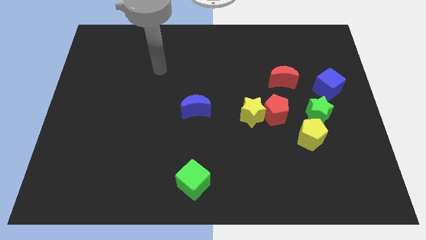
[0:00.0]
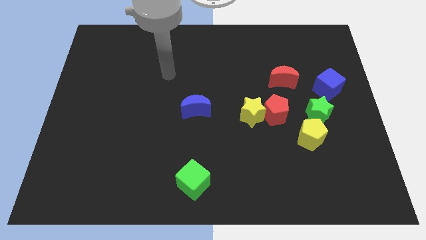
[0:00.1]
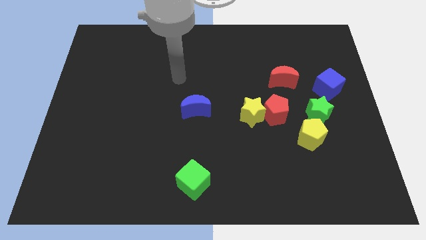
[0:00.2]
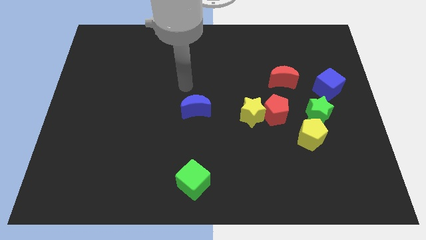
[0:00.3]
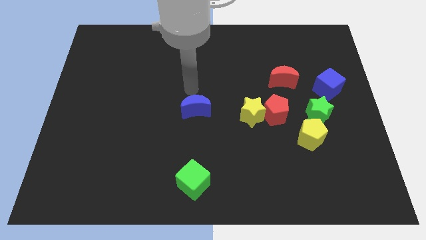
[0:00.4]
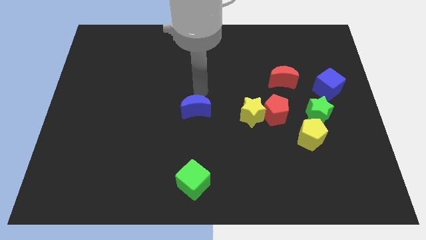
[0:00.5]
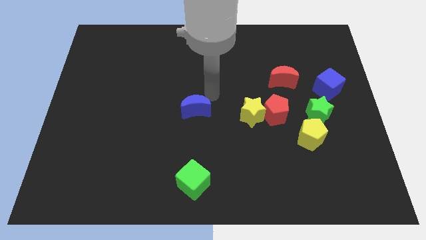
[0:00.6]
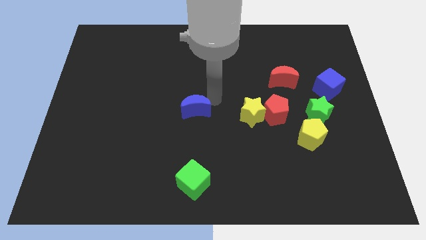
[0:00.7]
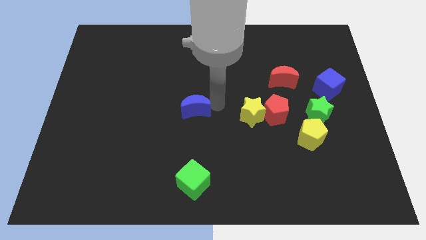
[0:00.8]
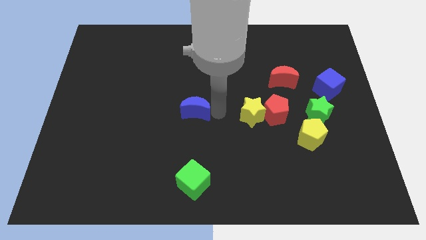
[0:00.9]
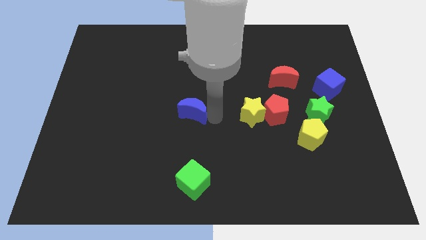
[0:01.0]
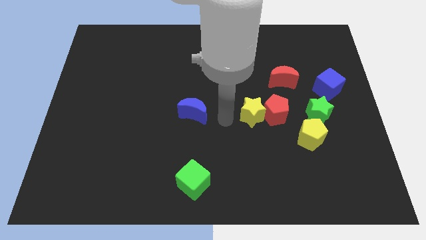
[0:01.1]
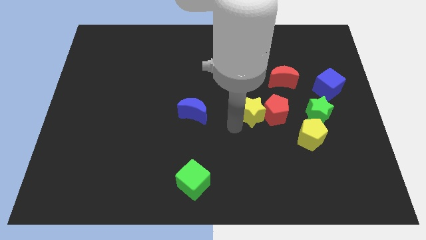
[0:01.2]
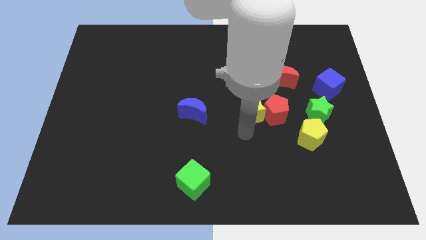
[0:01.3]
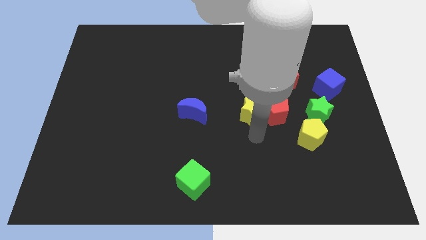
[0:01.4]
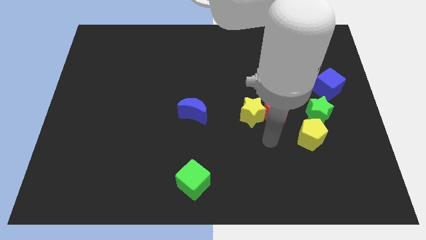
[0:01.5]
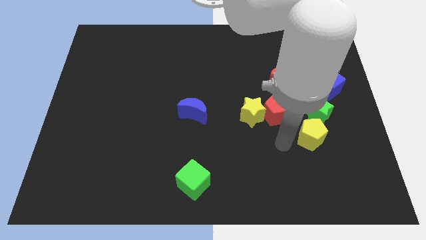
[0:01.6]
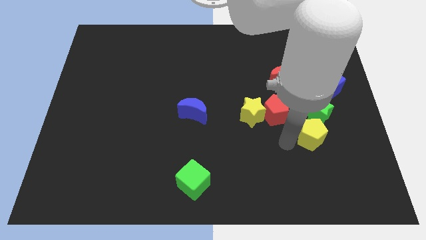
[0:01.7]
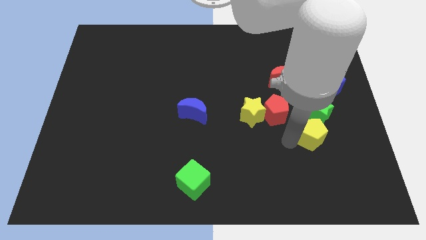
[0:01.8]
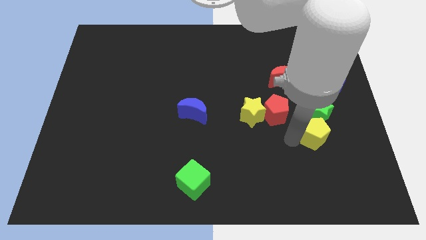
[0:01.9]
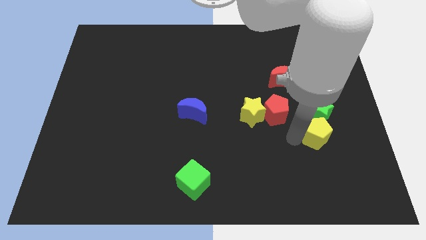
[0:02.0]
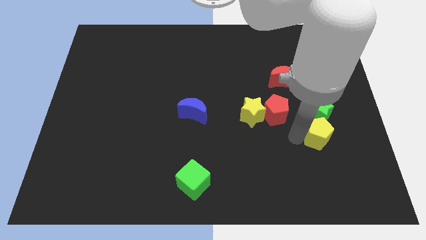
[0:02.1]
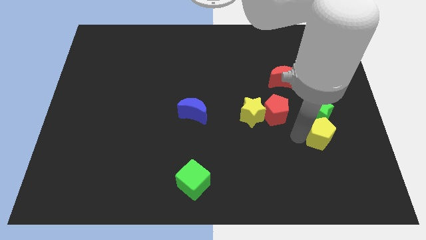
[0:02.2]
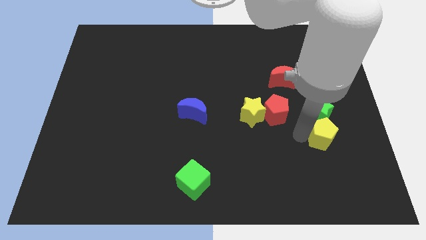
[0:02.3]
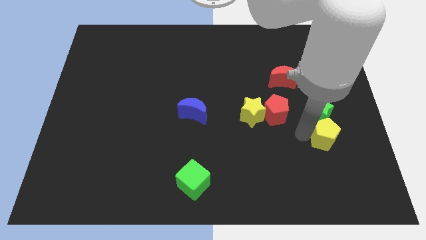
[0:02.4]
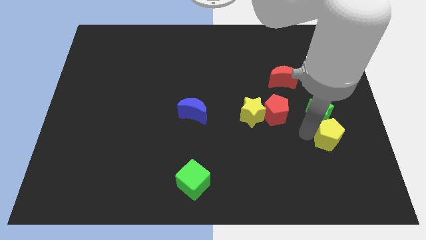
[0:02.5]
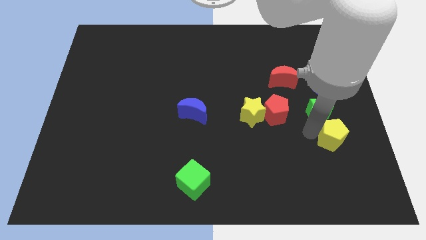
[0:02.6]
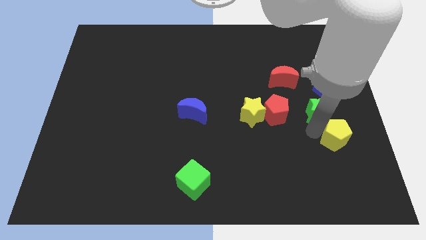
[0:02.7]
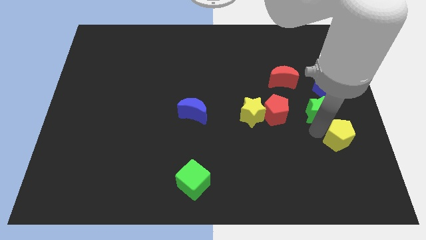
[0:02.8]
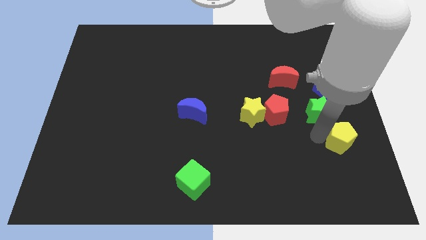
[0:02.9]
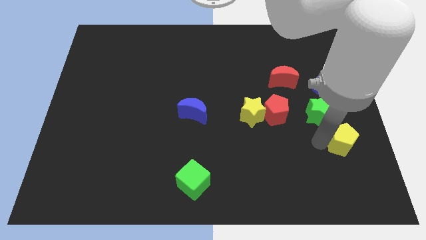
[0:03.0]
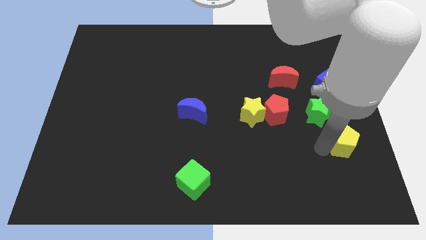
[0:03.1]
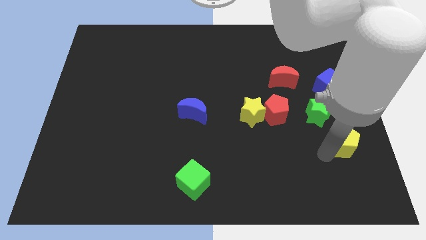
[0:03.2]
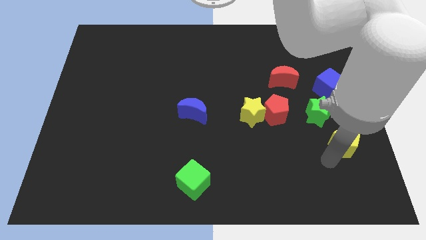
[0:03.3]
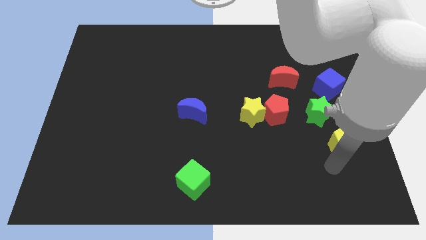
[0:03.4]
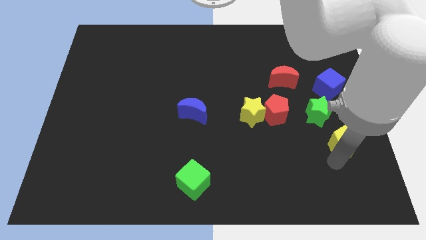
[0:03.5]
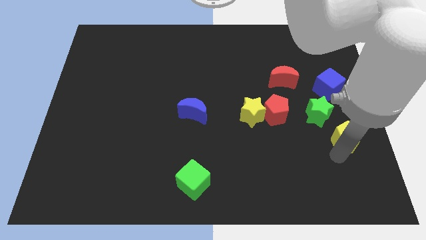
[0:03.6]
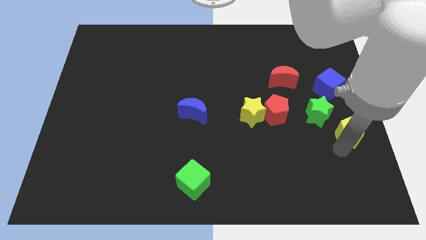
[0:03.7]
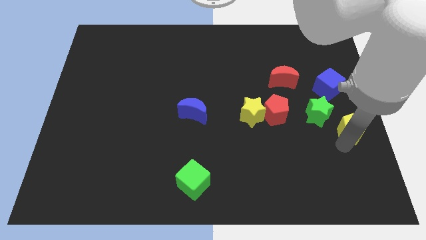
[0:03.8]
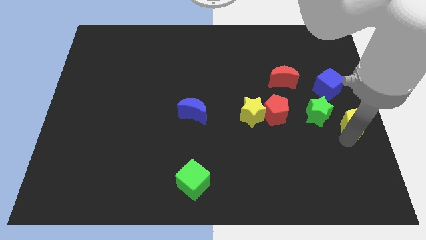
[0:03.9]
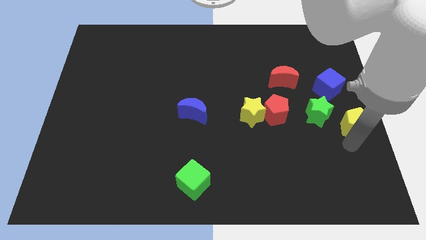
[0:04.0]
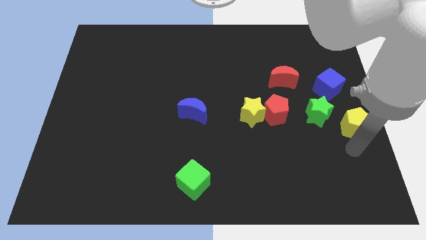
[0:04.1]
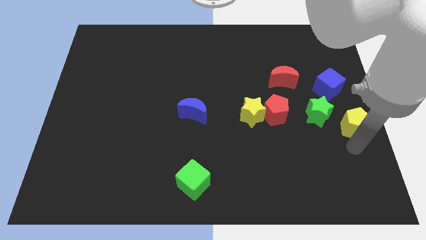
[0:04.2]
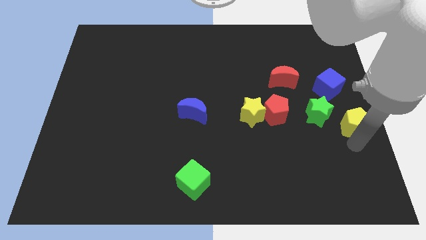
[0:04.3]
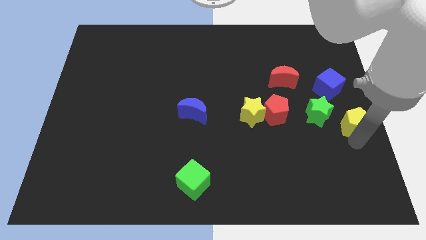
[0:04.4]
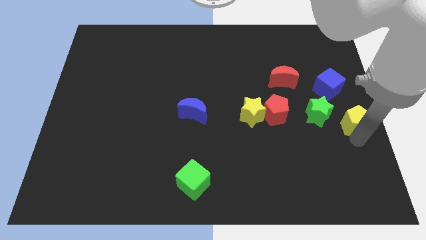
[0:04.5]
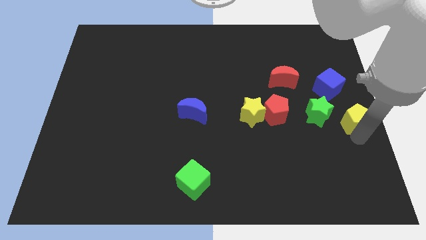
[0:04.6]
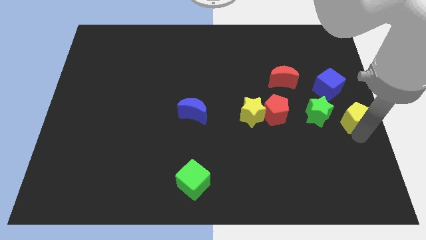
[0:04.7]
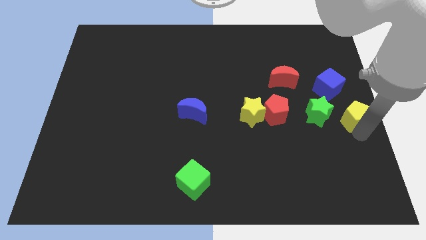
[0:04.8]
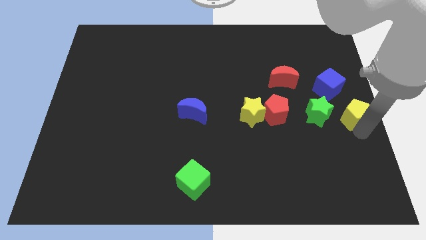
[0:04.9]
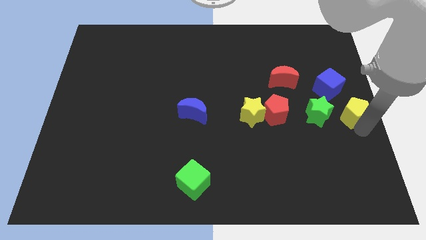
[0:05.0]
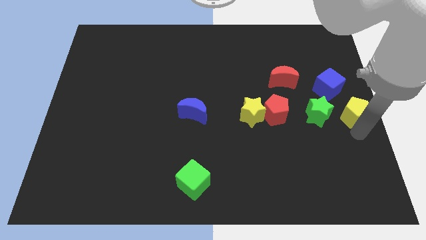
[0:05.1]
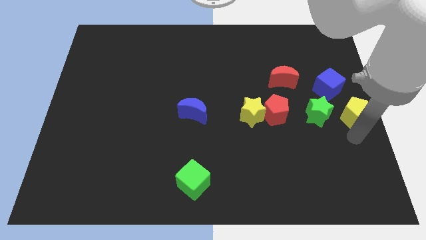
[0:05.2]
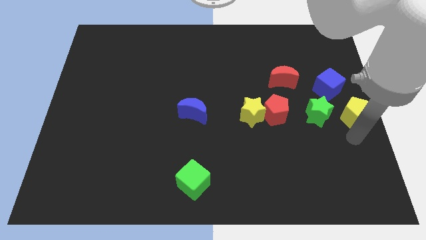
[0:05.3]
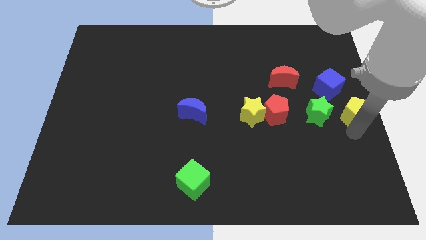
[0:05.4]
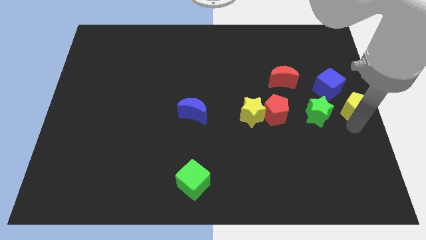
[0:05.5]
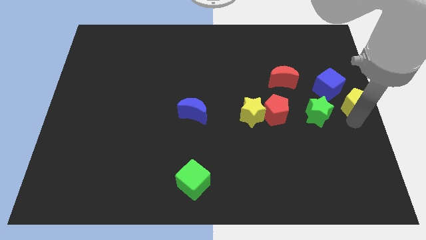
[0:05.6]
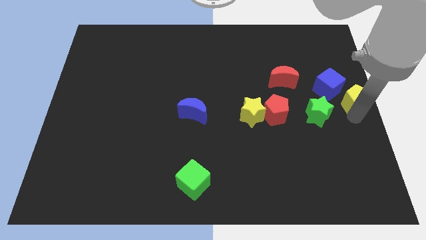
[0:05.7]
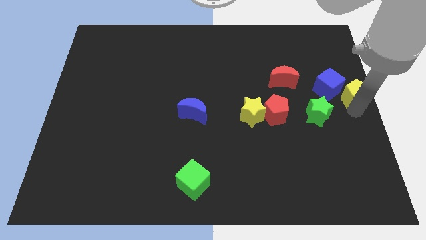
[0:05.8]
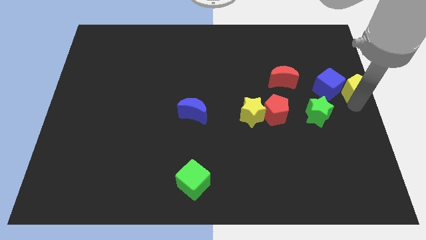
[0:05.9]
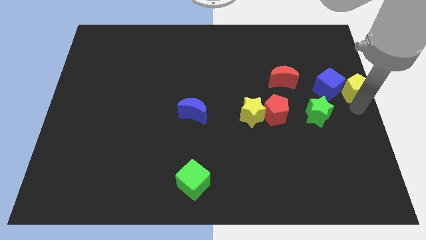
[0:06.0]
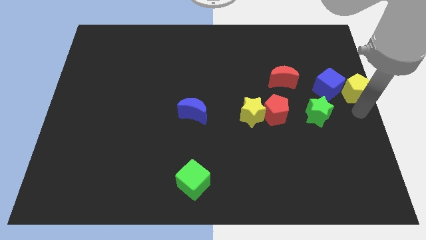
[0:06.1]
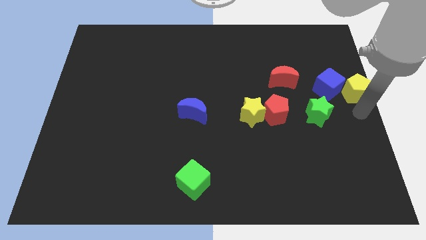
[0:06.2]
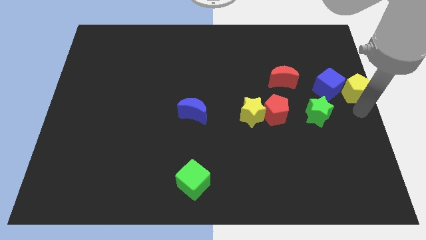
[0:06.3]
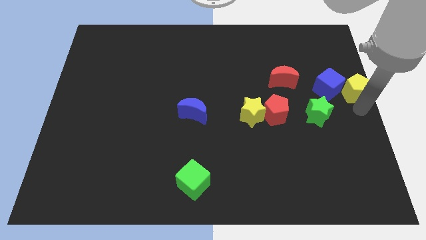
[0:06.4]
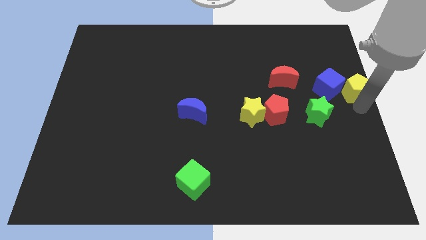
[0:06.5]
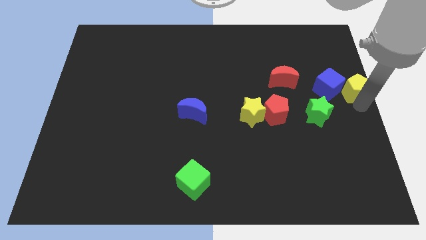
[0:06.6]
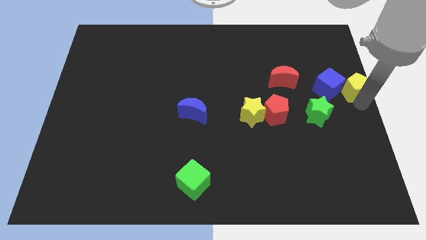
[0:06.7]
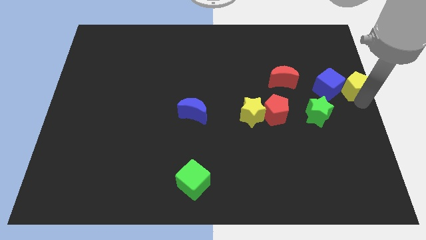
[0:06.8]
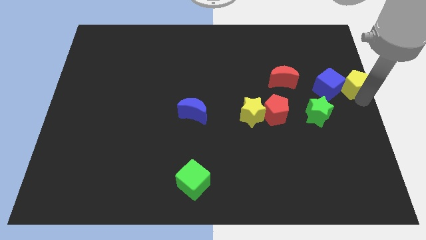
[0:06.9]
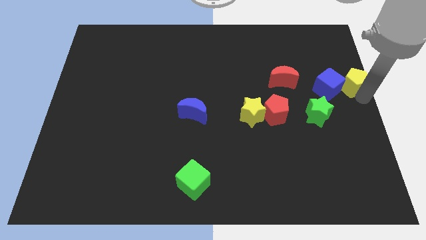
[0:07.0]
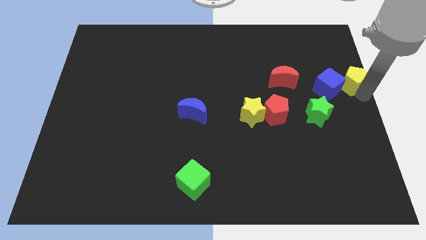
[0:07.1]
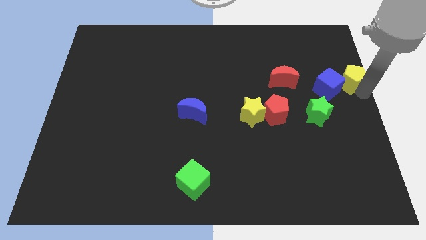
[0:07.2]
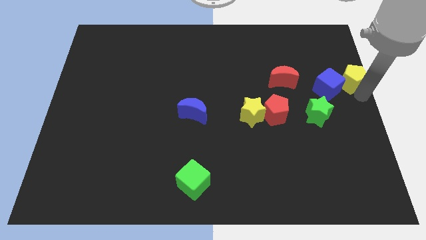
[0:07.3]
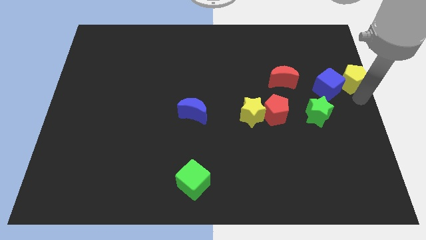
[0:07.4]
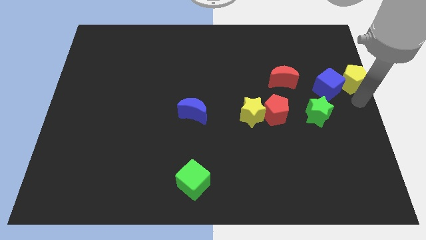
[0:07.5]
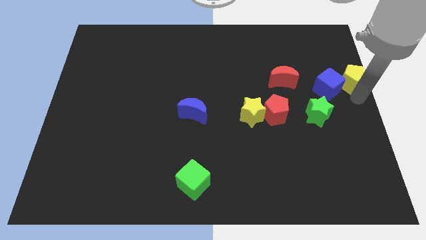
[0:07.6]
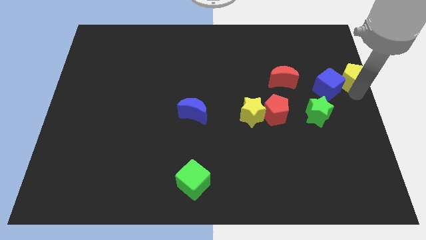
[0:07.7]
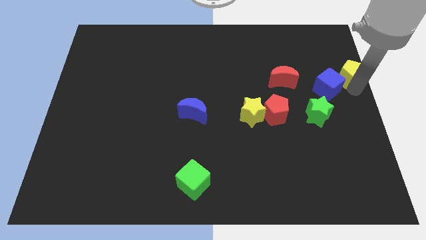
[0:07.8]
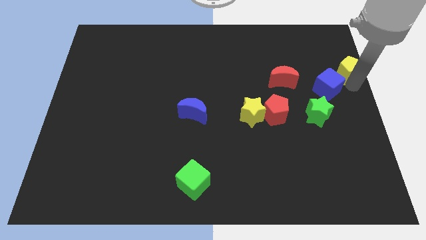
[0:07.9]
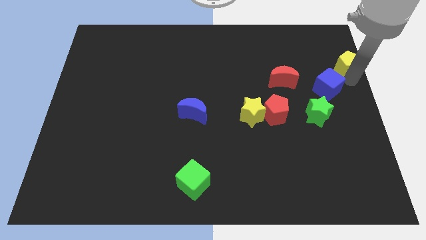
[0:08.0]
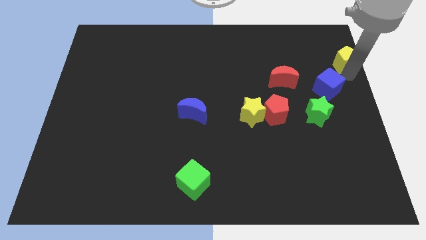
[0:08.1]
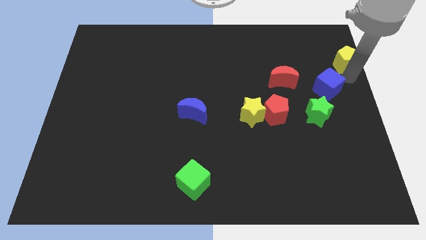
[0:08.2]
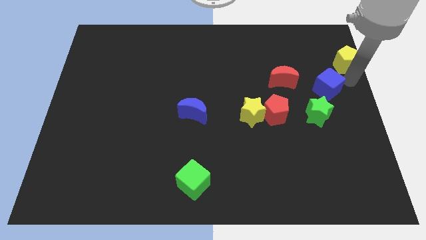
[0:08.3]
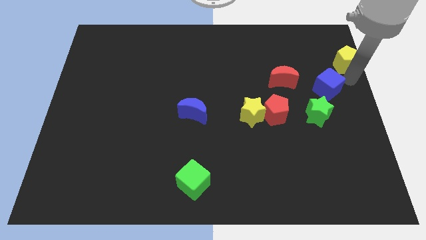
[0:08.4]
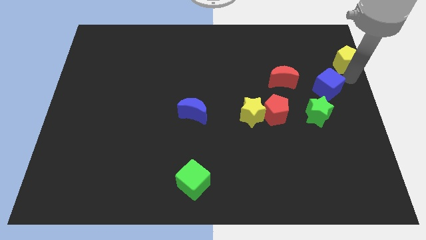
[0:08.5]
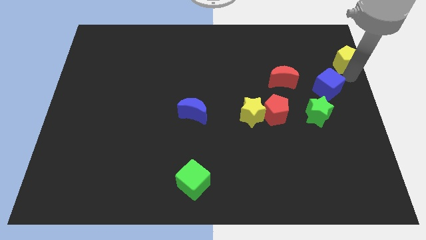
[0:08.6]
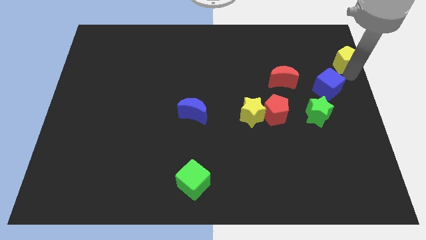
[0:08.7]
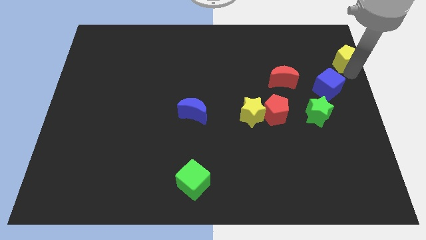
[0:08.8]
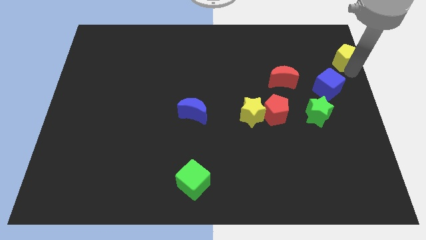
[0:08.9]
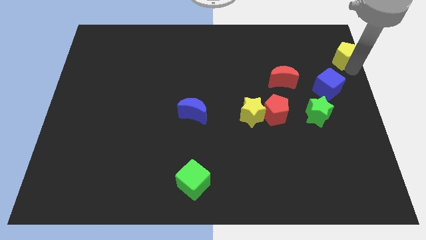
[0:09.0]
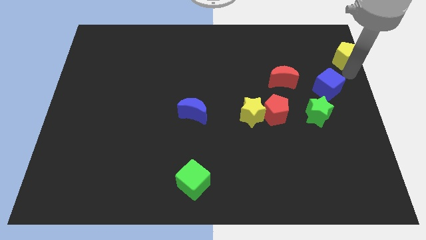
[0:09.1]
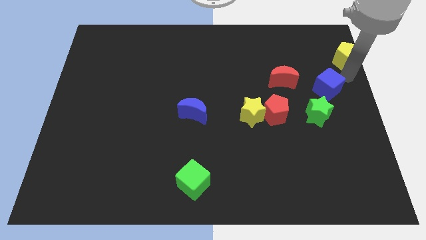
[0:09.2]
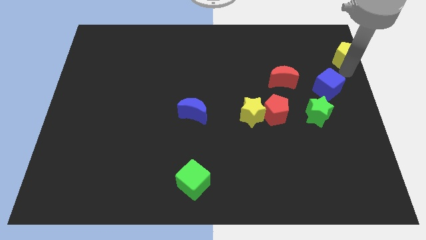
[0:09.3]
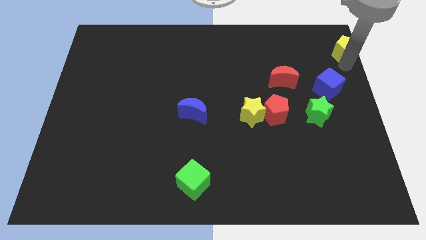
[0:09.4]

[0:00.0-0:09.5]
slide the yellow pentagon to the top right of the board
